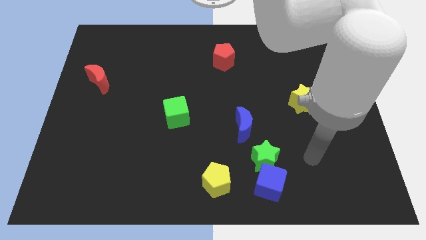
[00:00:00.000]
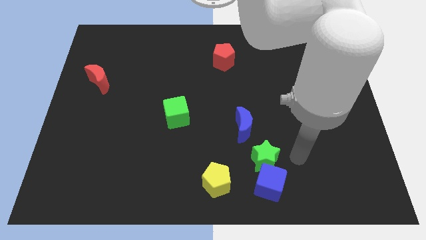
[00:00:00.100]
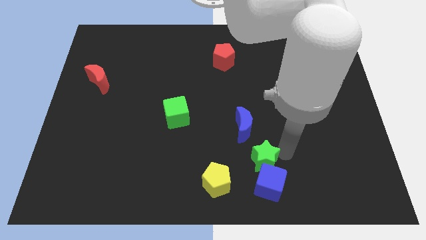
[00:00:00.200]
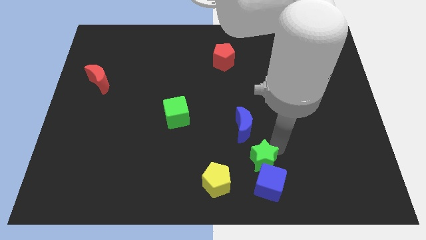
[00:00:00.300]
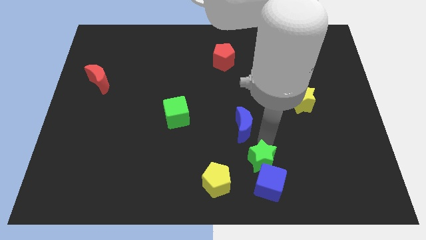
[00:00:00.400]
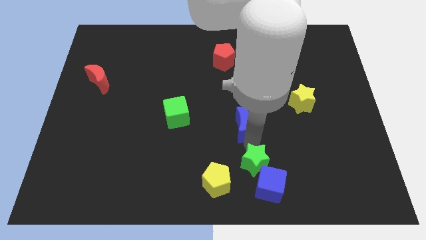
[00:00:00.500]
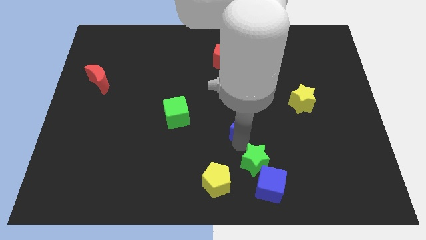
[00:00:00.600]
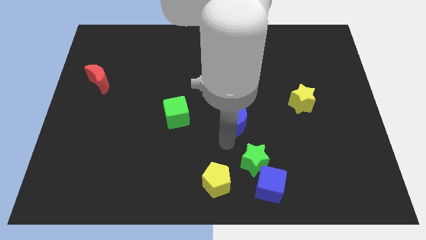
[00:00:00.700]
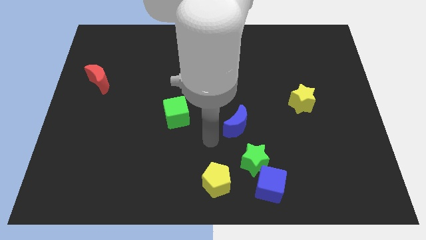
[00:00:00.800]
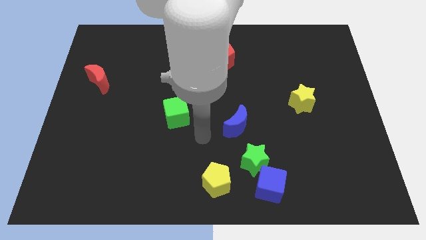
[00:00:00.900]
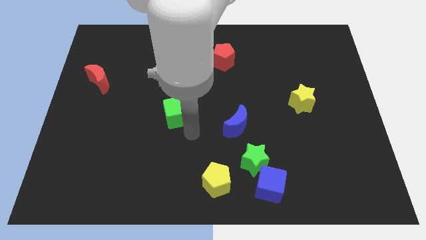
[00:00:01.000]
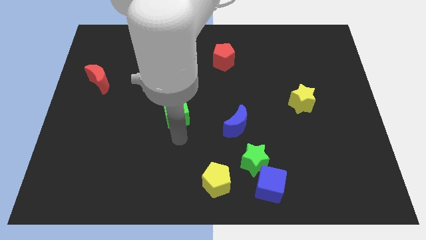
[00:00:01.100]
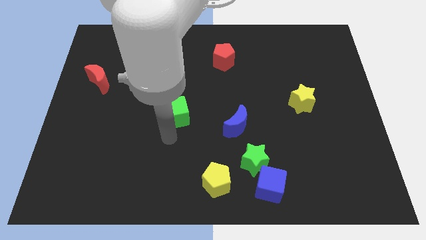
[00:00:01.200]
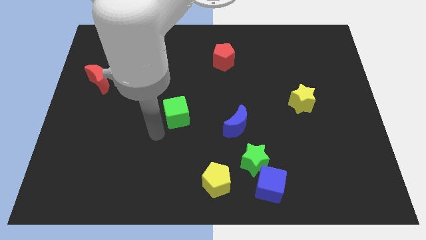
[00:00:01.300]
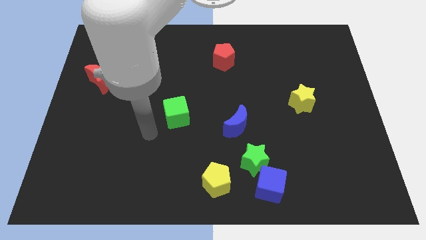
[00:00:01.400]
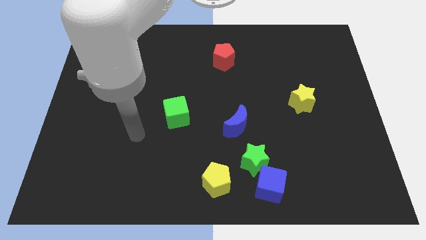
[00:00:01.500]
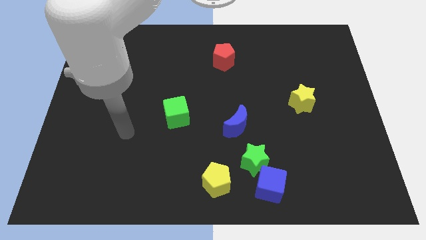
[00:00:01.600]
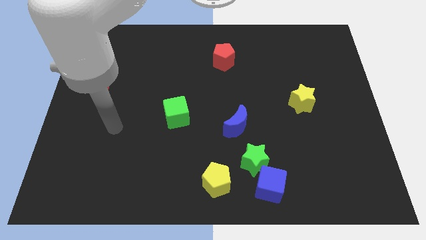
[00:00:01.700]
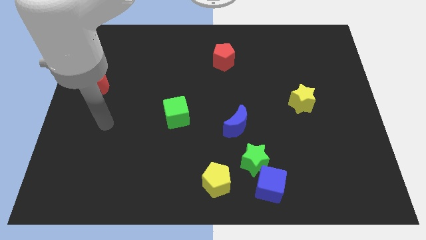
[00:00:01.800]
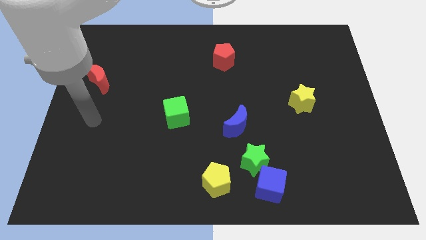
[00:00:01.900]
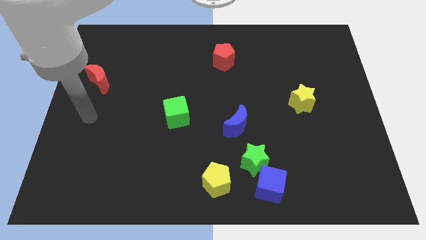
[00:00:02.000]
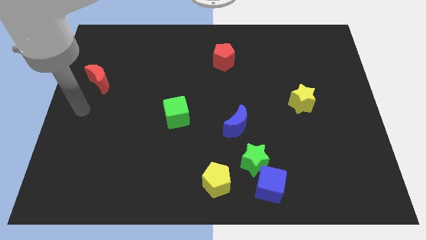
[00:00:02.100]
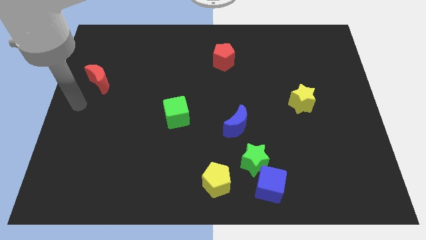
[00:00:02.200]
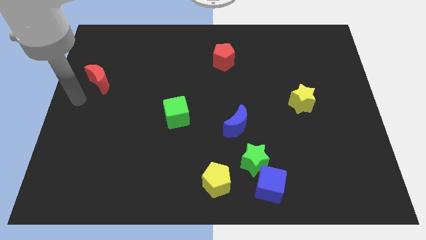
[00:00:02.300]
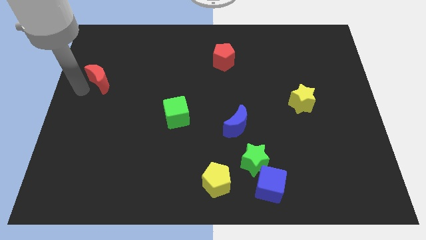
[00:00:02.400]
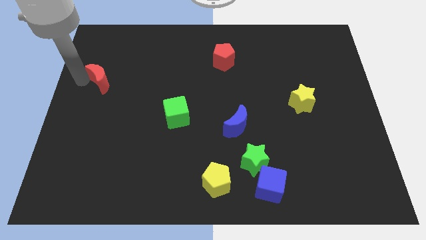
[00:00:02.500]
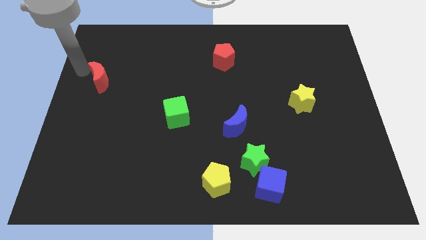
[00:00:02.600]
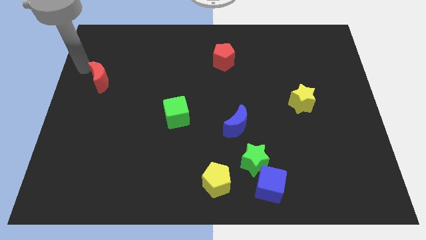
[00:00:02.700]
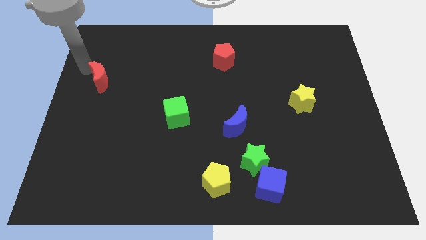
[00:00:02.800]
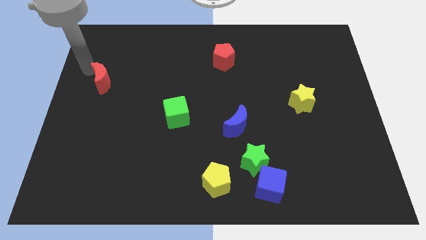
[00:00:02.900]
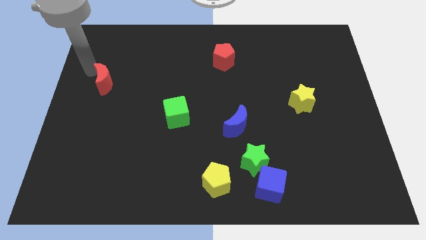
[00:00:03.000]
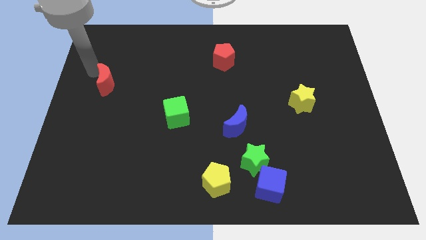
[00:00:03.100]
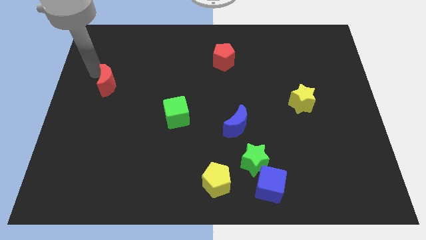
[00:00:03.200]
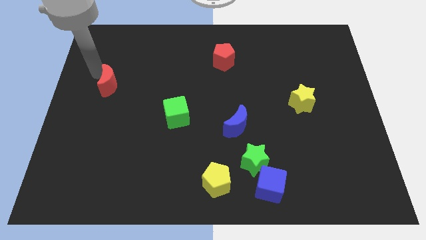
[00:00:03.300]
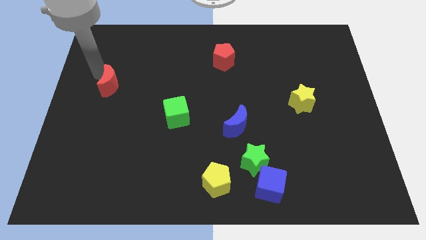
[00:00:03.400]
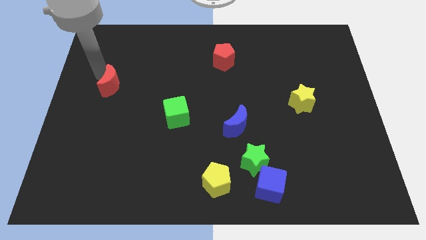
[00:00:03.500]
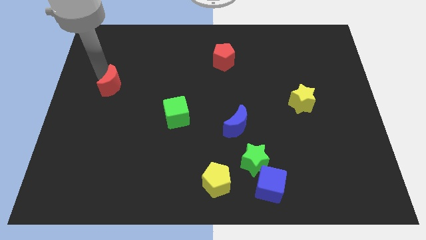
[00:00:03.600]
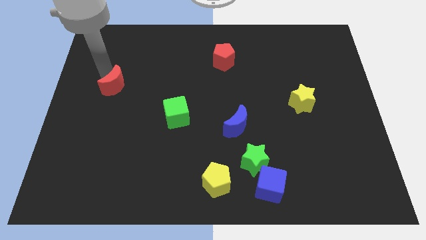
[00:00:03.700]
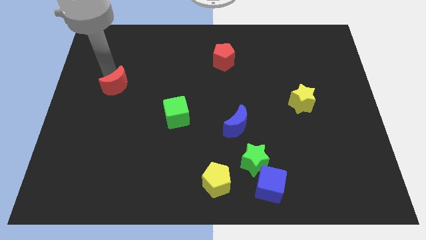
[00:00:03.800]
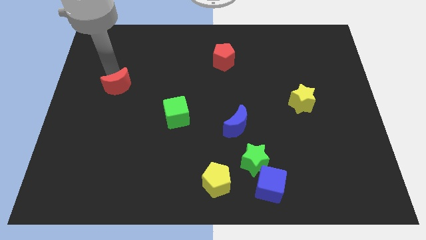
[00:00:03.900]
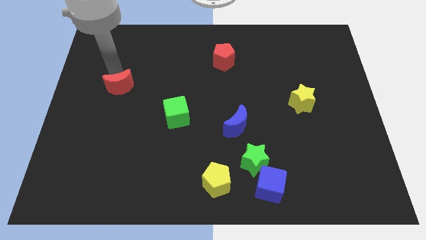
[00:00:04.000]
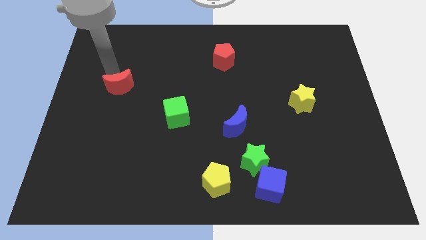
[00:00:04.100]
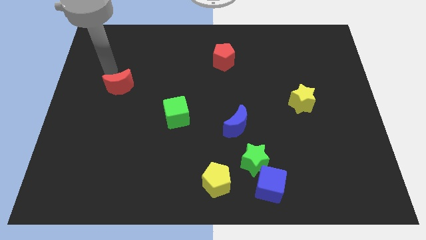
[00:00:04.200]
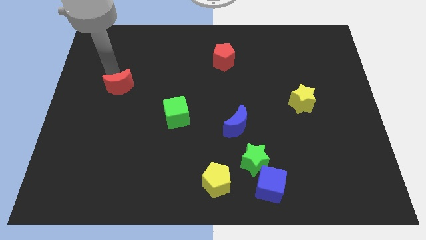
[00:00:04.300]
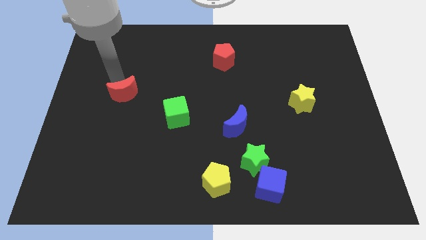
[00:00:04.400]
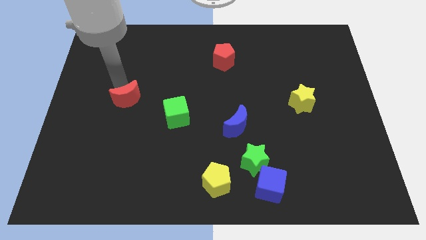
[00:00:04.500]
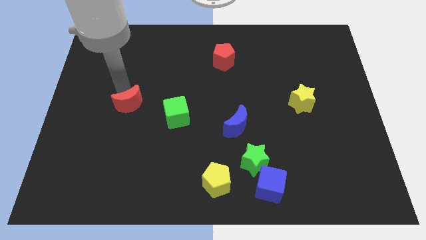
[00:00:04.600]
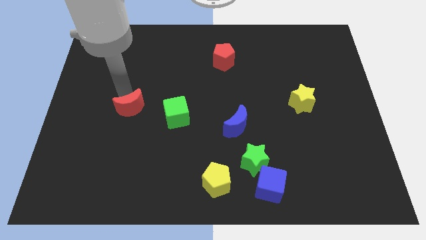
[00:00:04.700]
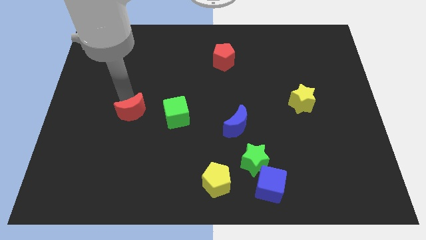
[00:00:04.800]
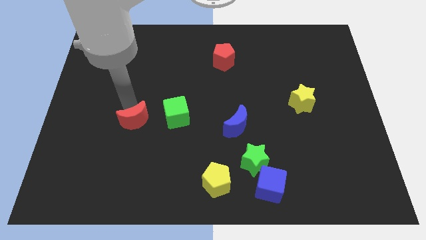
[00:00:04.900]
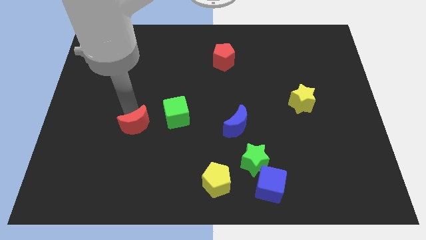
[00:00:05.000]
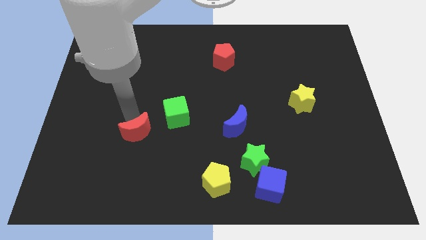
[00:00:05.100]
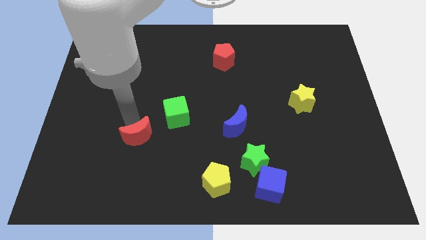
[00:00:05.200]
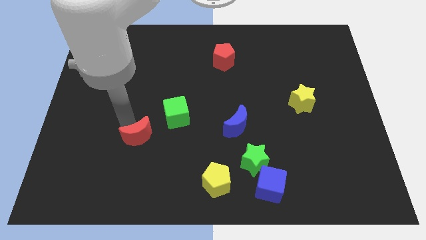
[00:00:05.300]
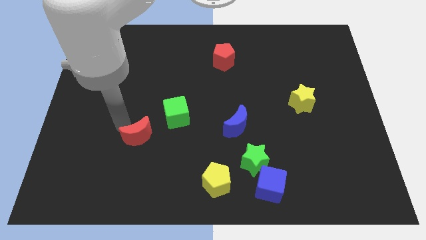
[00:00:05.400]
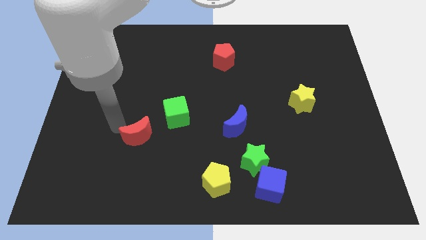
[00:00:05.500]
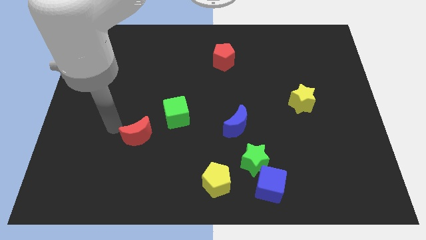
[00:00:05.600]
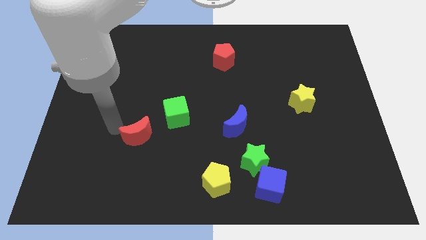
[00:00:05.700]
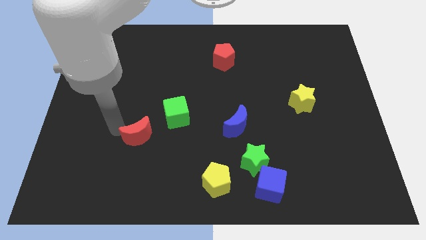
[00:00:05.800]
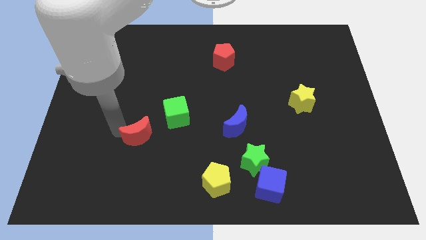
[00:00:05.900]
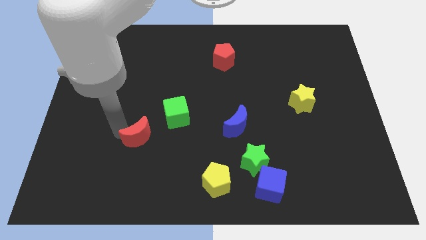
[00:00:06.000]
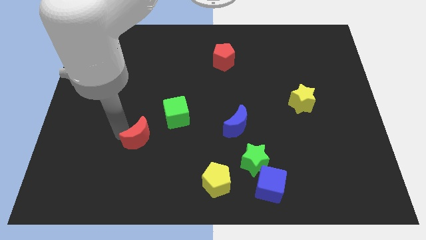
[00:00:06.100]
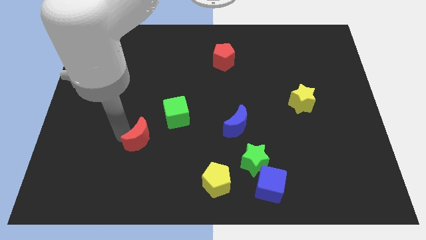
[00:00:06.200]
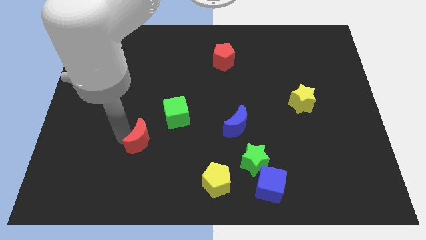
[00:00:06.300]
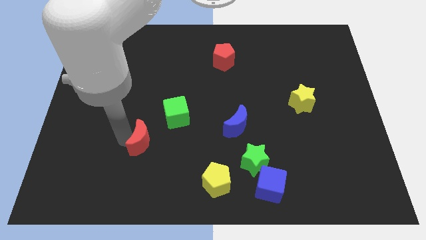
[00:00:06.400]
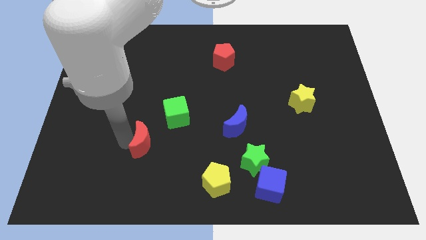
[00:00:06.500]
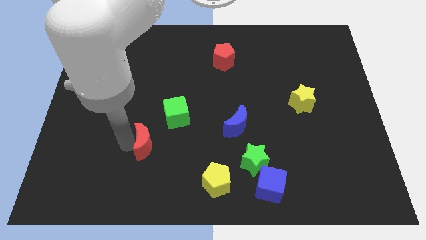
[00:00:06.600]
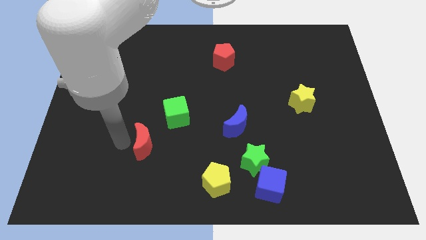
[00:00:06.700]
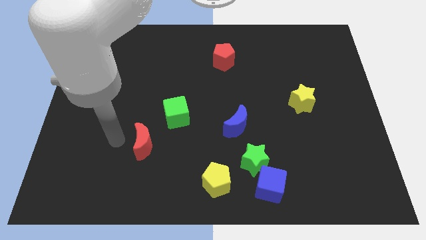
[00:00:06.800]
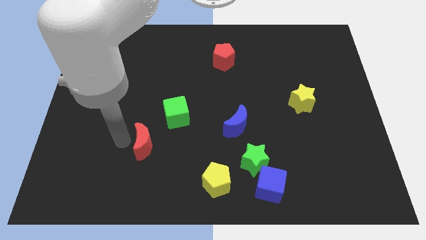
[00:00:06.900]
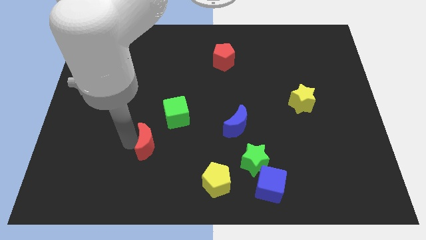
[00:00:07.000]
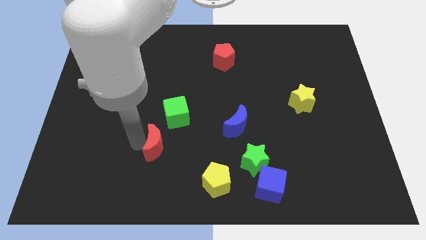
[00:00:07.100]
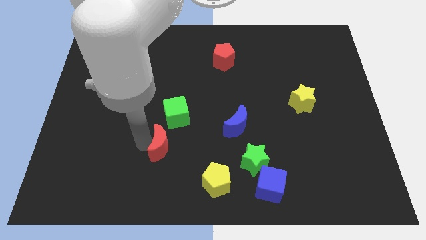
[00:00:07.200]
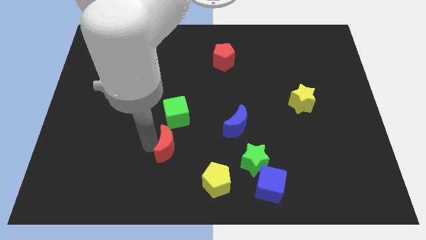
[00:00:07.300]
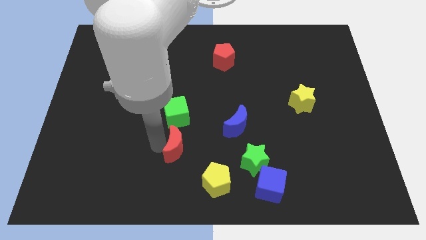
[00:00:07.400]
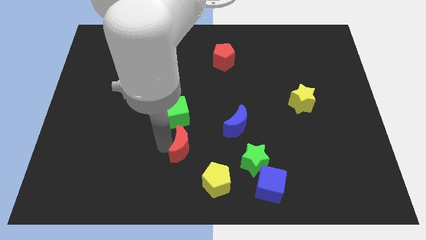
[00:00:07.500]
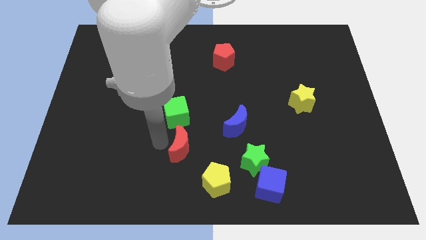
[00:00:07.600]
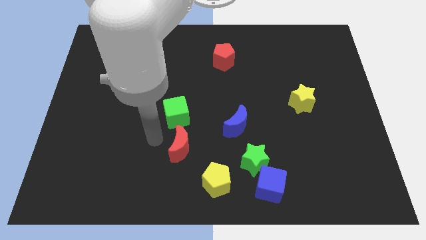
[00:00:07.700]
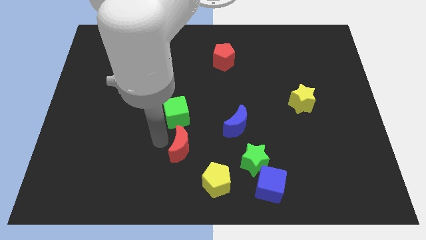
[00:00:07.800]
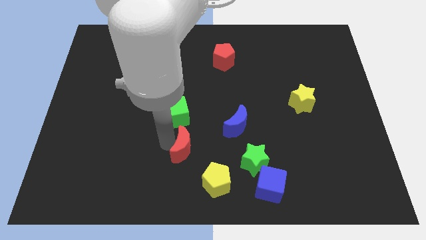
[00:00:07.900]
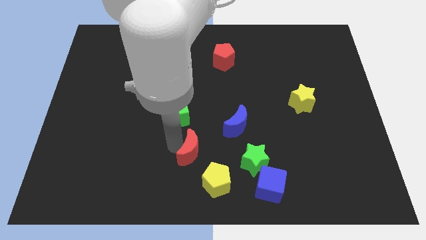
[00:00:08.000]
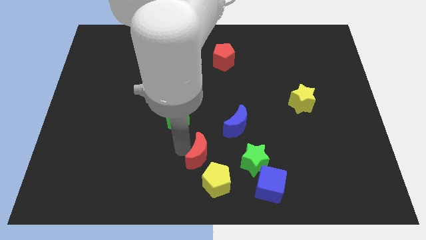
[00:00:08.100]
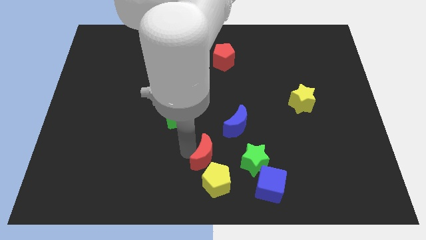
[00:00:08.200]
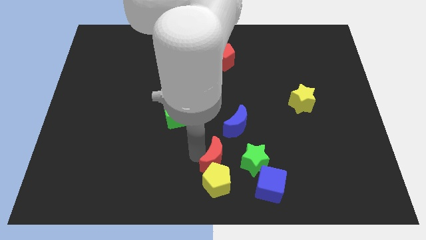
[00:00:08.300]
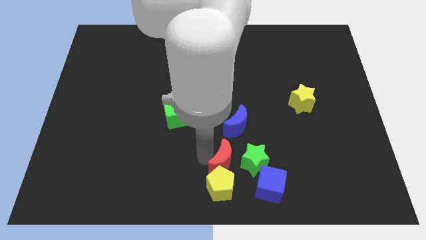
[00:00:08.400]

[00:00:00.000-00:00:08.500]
slide the red moon diagonally up and to the left of the blue cube
